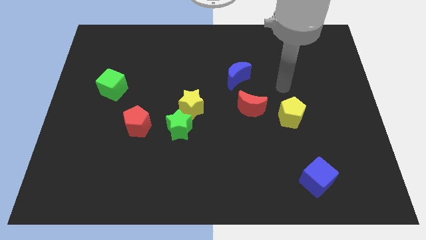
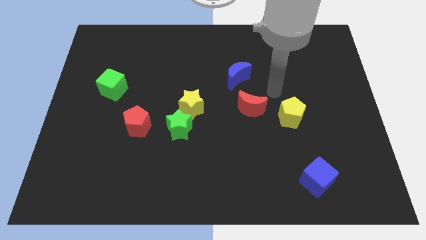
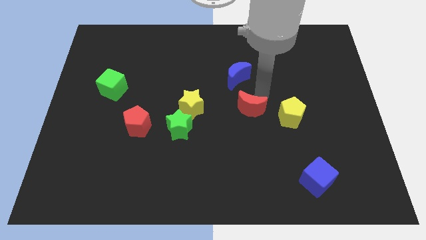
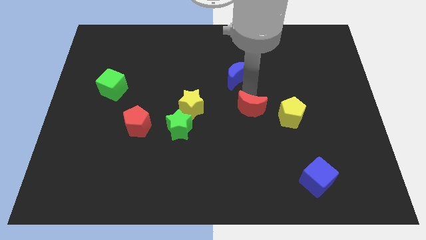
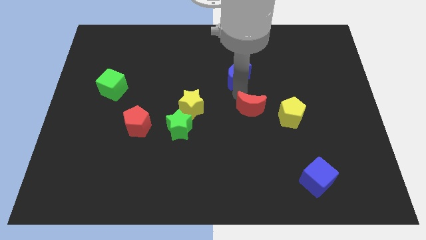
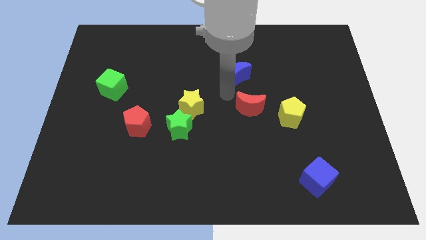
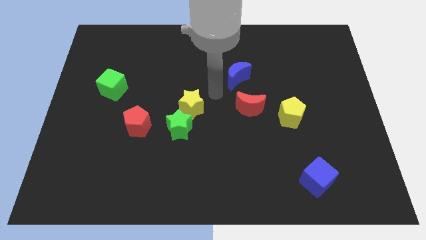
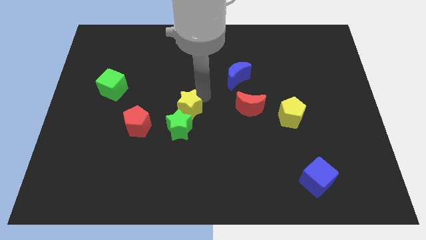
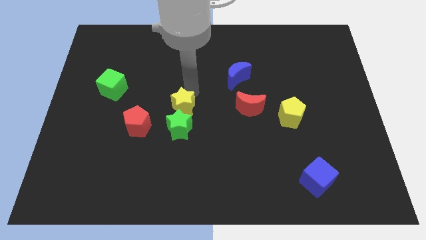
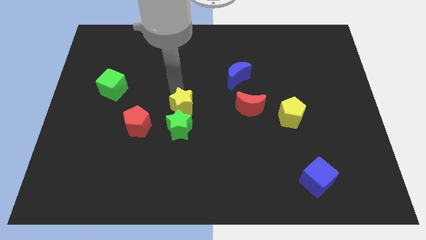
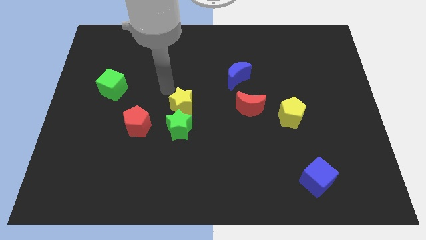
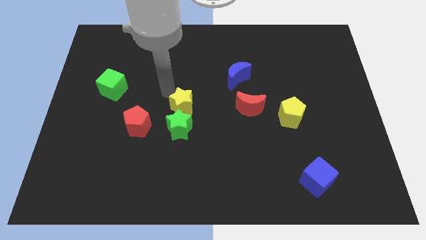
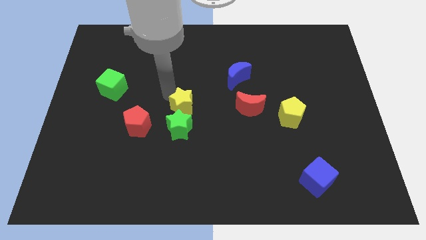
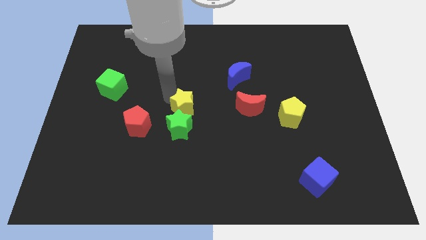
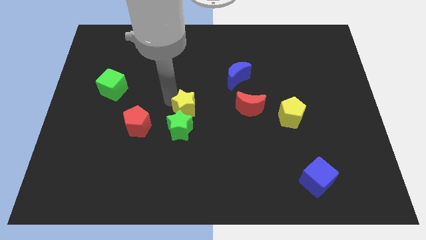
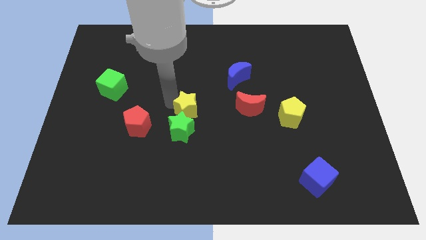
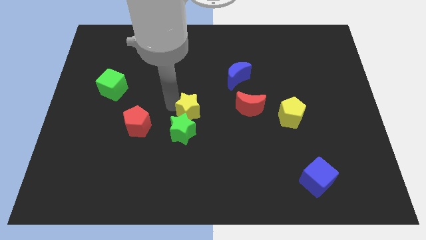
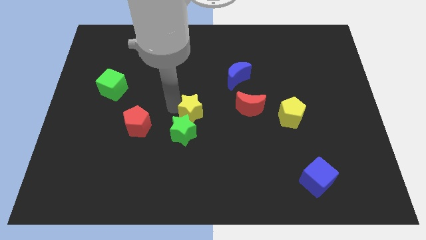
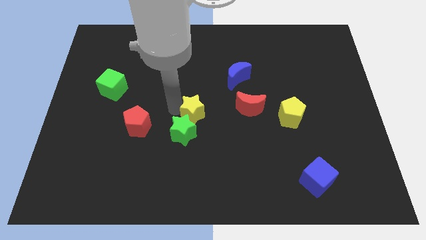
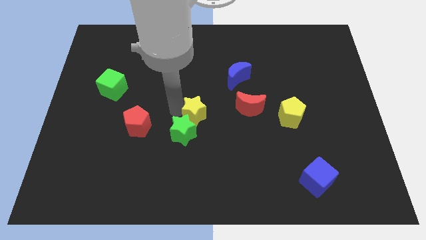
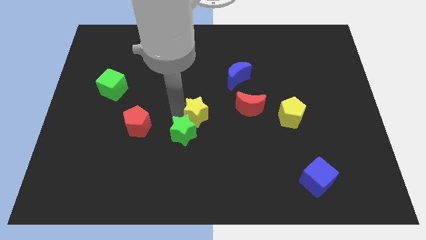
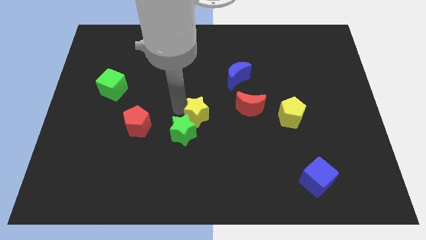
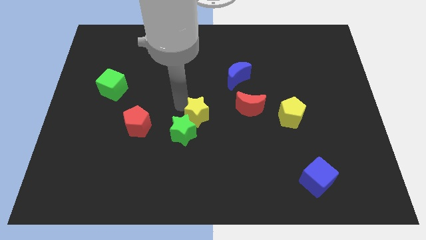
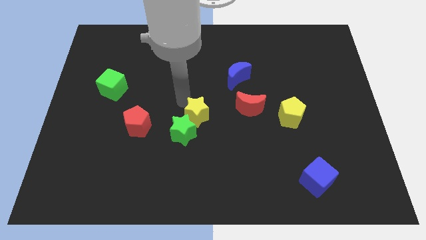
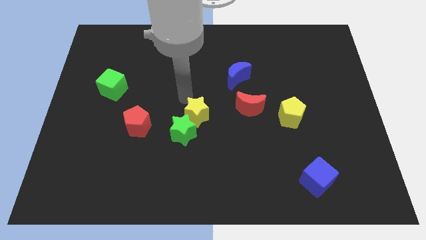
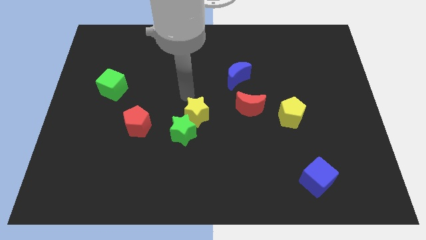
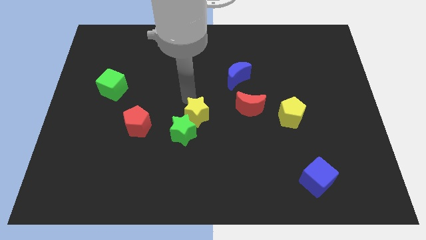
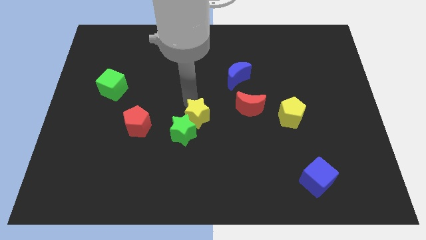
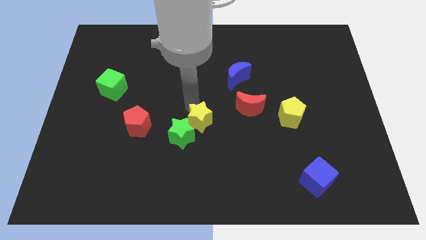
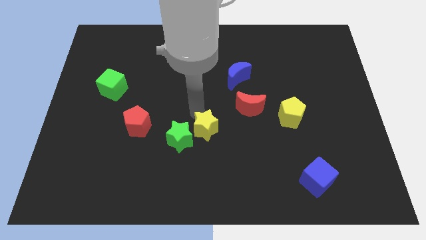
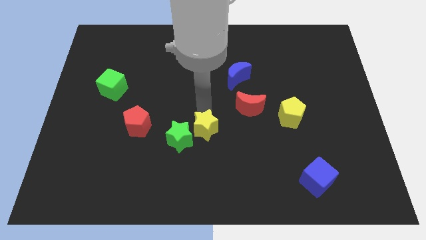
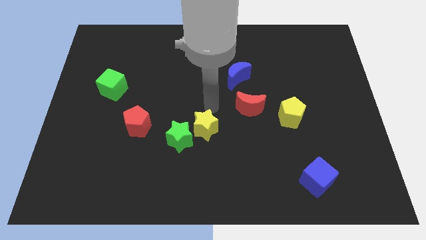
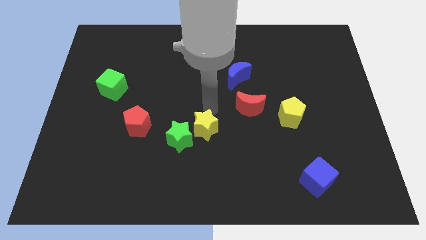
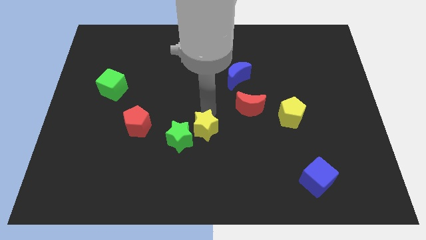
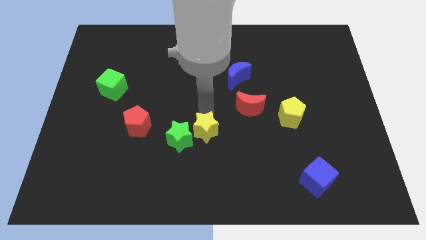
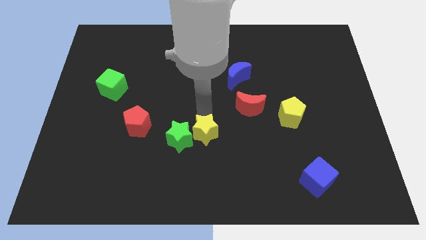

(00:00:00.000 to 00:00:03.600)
slightly push the yellow star downwards

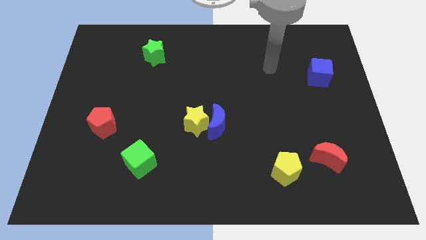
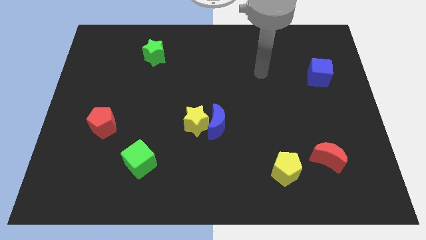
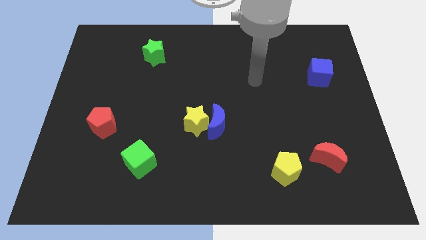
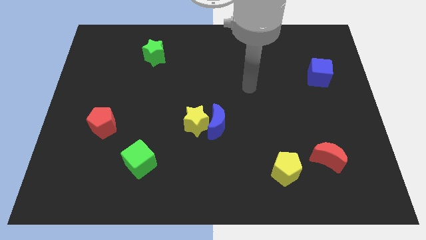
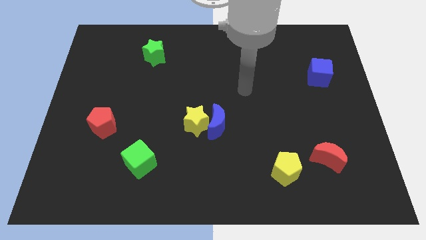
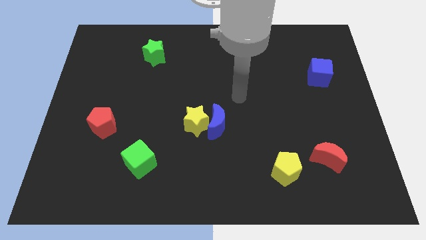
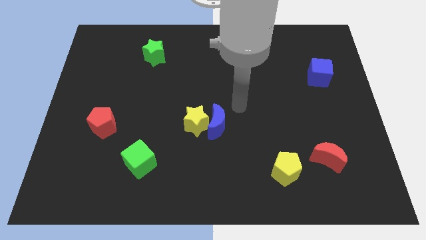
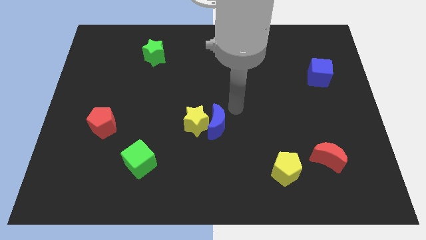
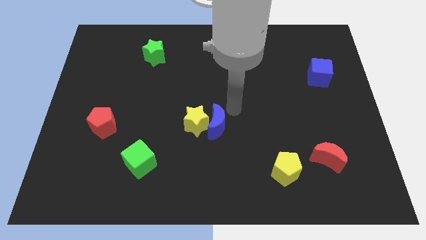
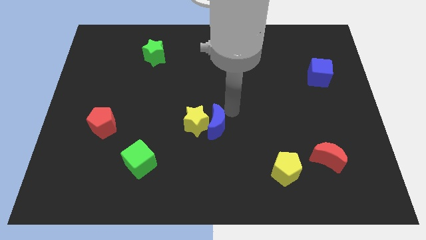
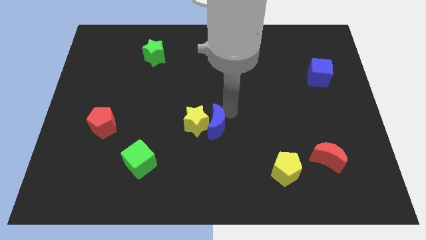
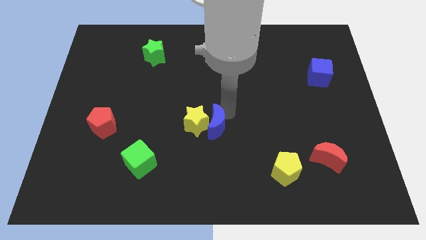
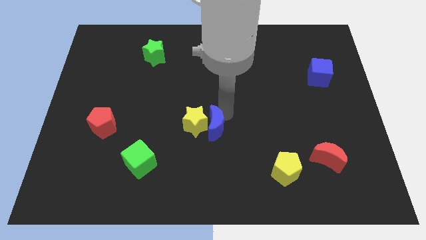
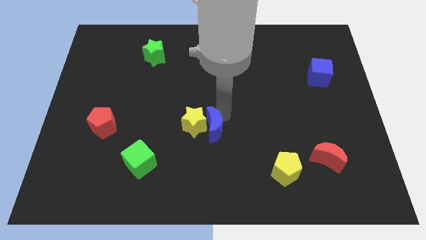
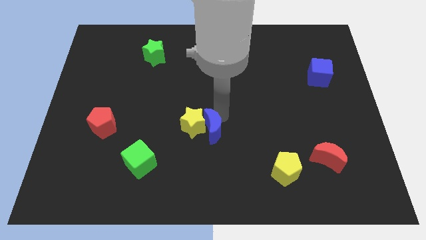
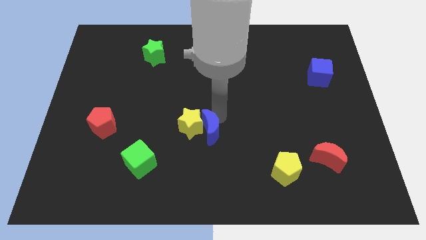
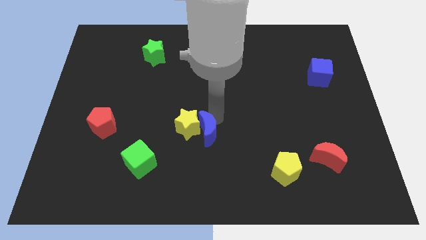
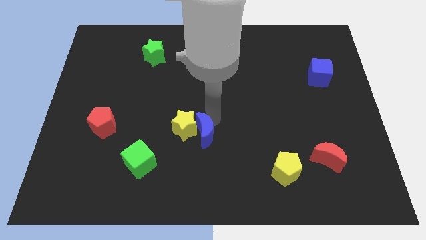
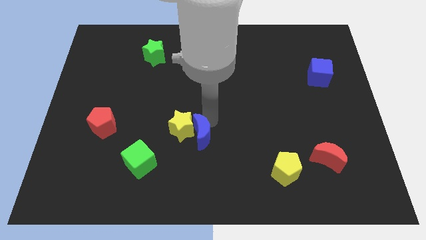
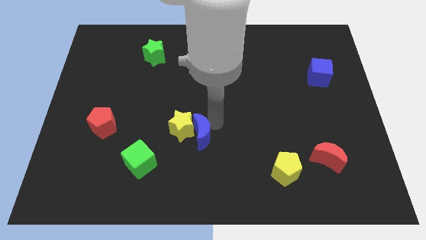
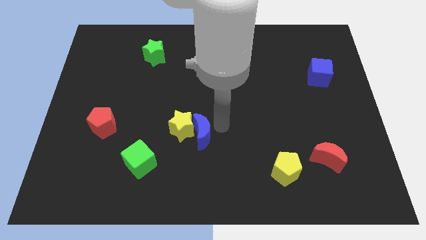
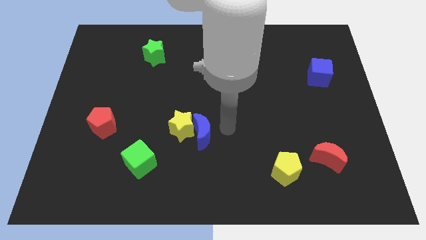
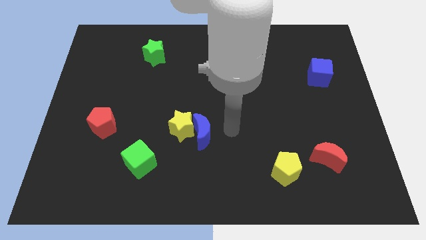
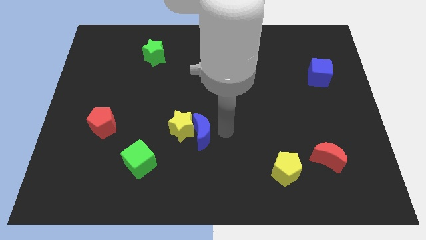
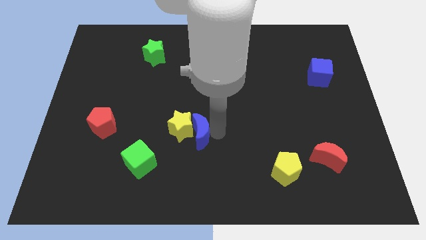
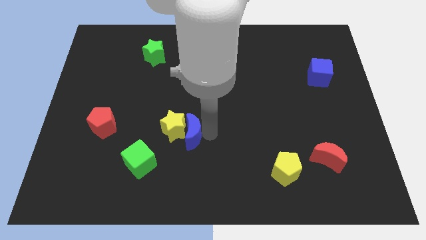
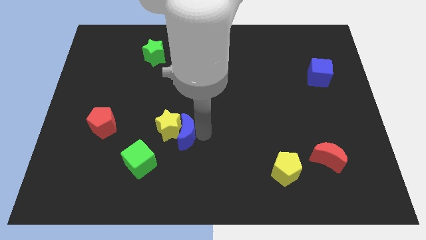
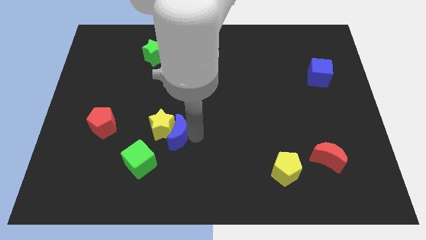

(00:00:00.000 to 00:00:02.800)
push the blue moon left a bit

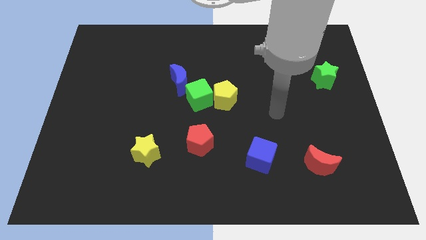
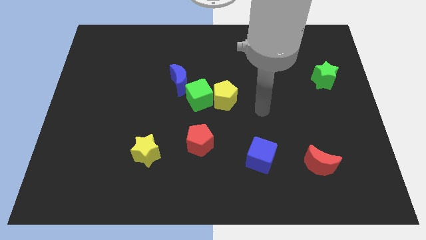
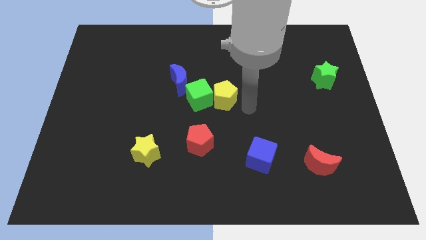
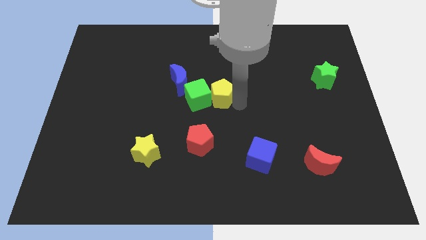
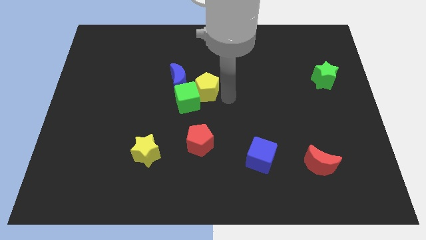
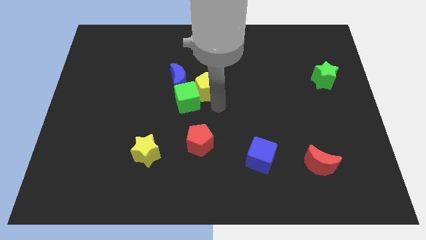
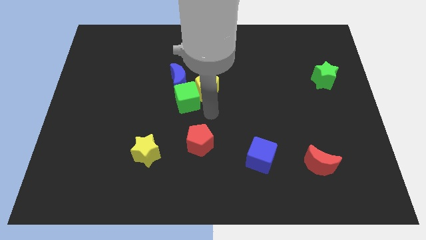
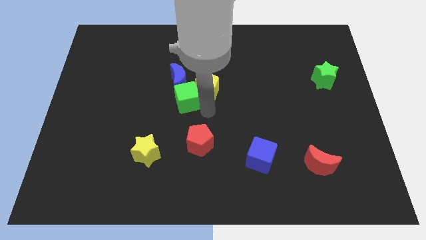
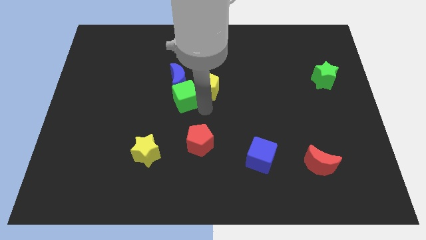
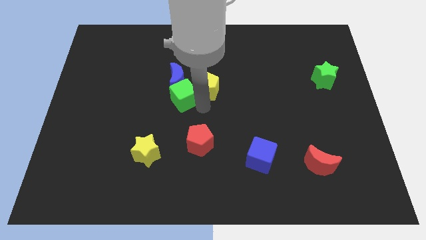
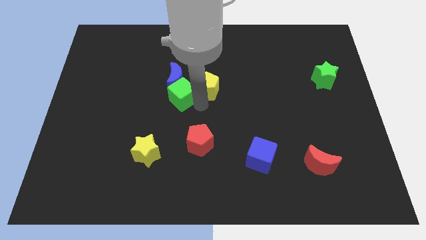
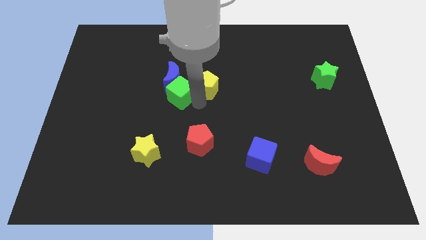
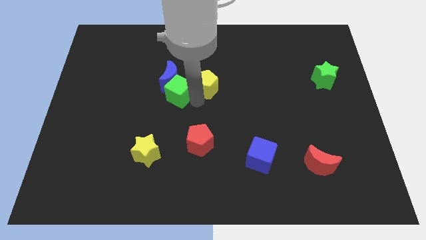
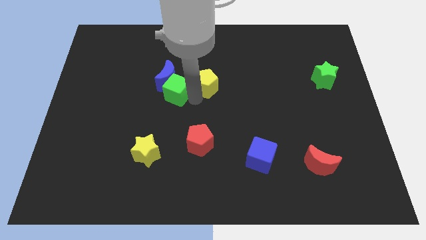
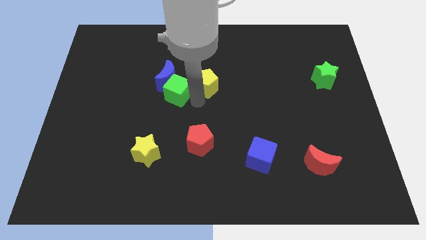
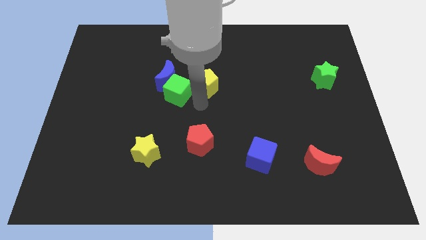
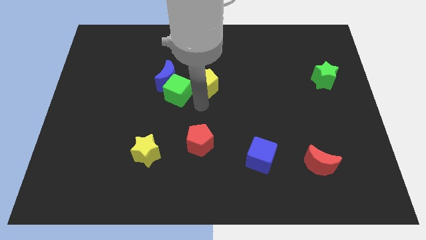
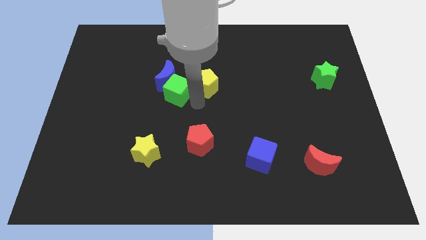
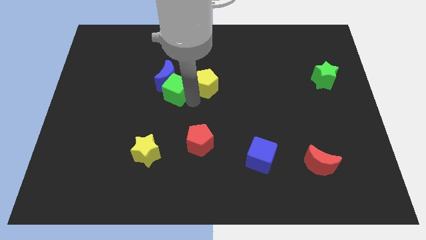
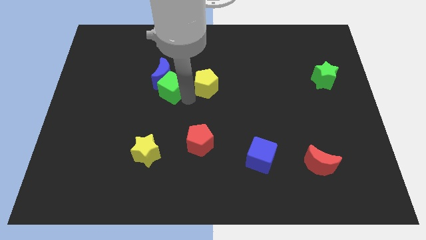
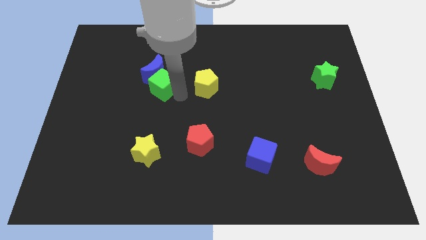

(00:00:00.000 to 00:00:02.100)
push the green cube up and left a bit
